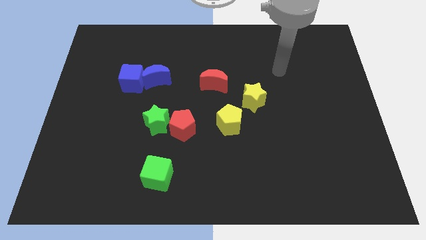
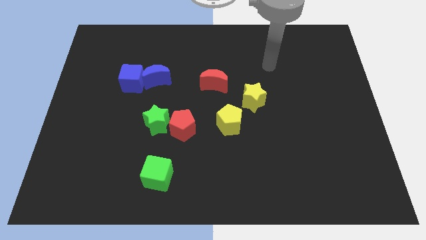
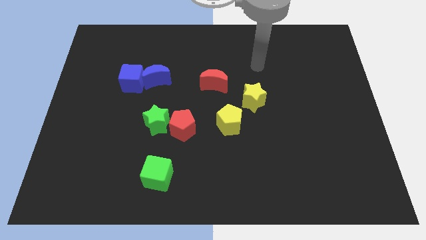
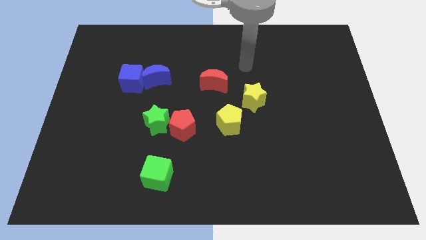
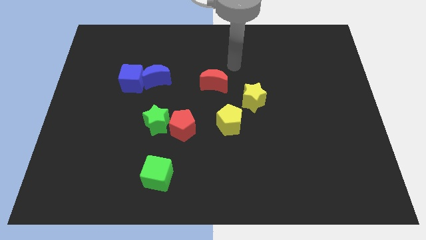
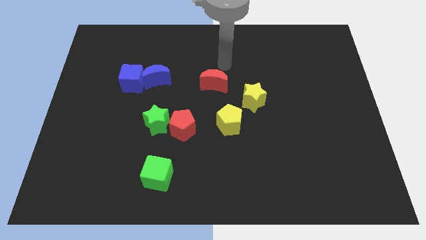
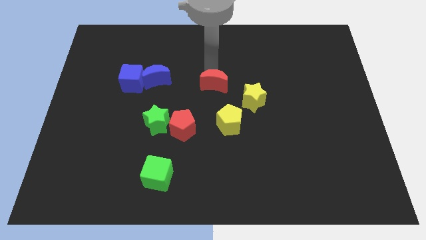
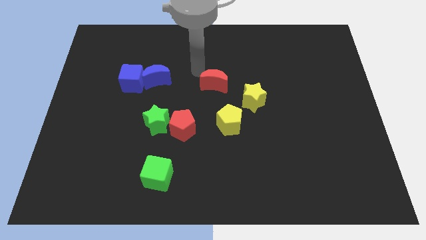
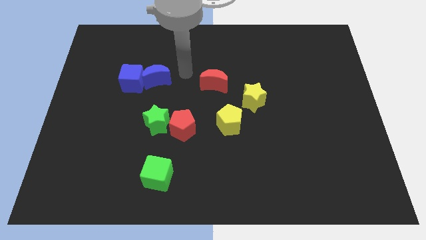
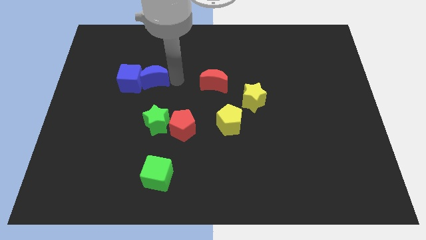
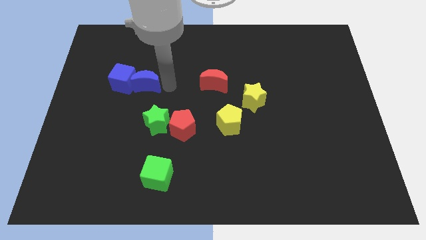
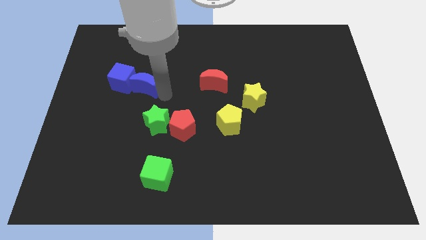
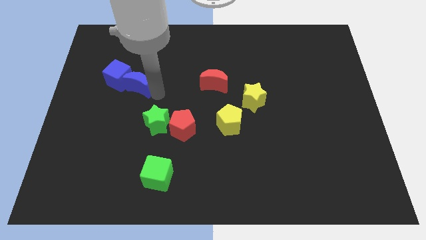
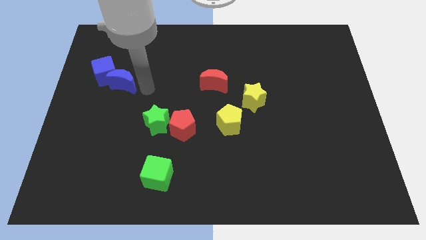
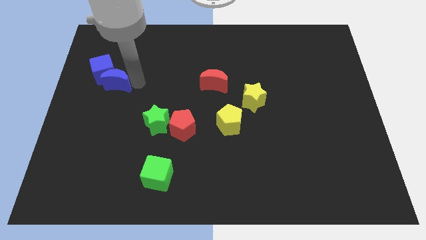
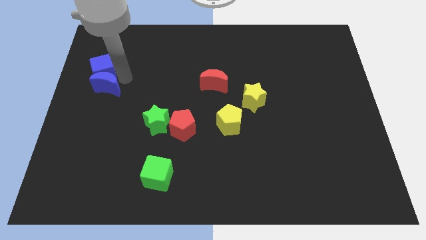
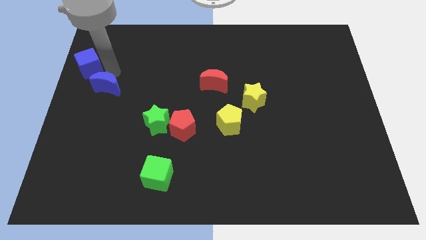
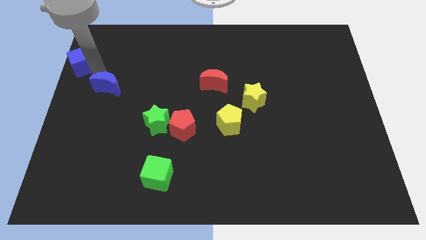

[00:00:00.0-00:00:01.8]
separate the blue moon from the blue cube

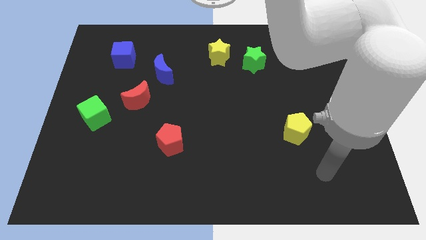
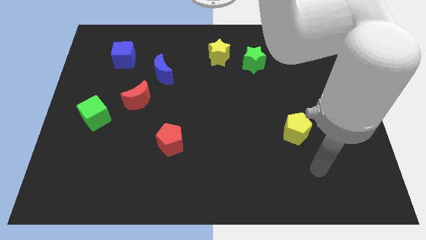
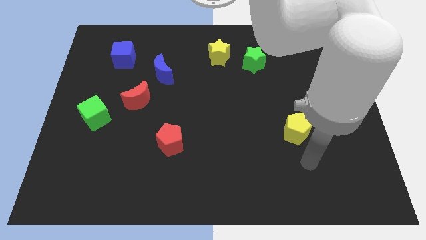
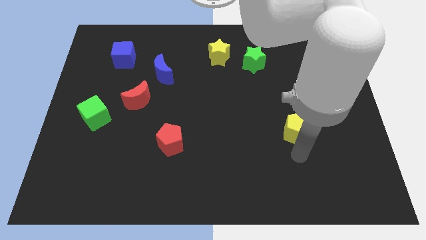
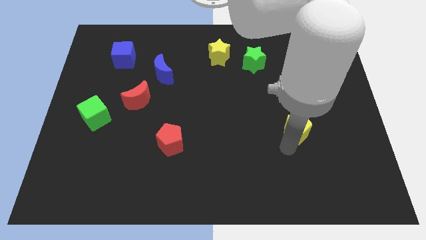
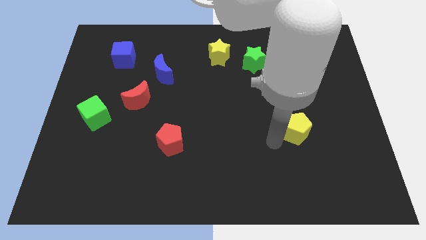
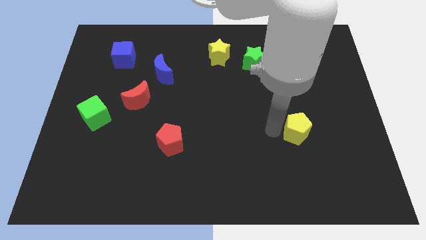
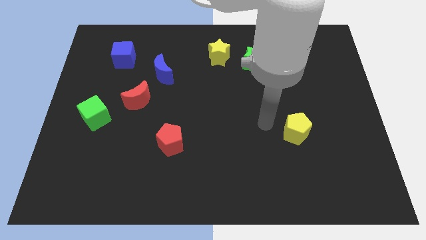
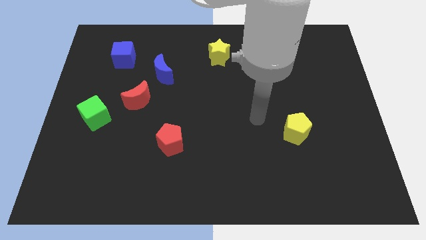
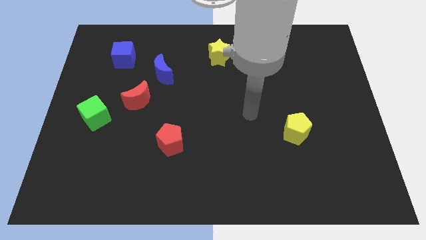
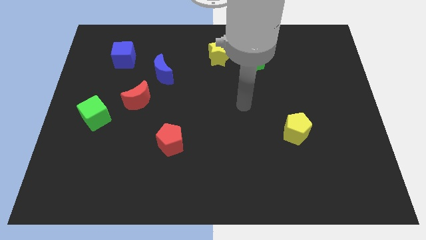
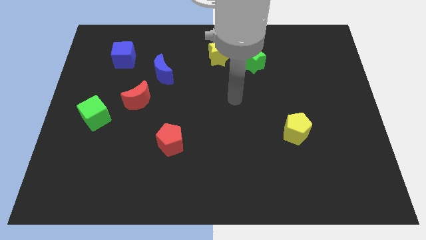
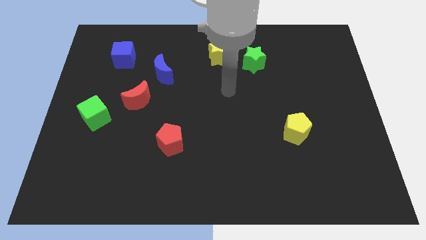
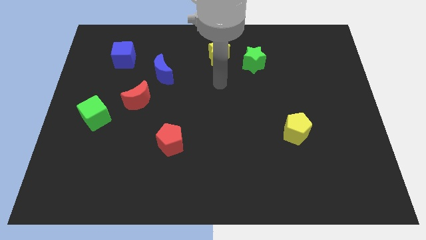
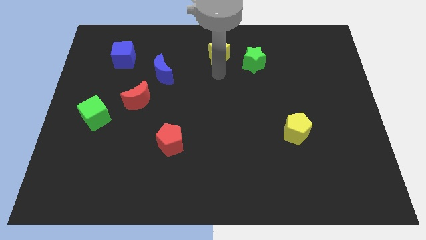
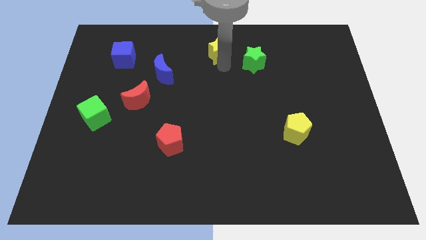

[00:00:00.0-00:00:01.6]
pull the green star apart from the yellow star

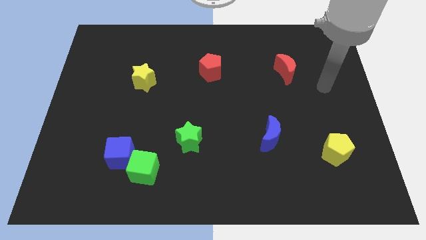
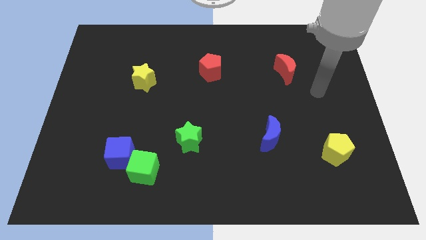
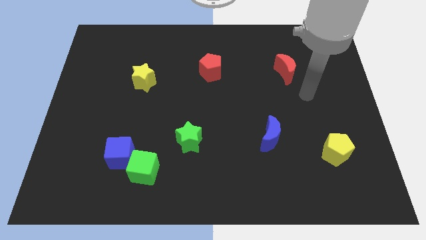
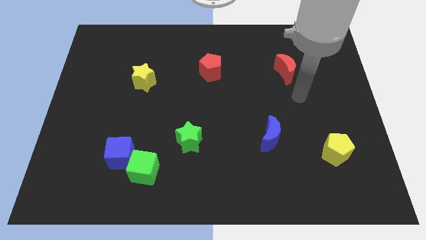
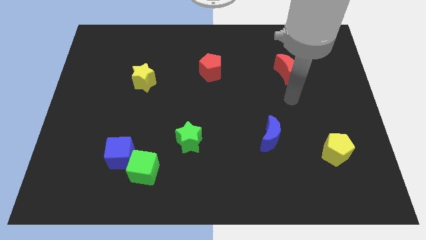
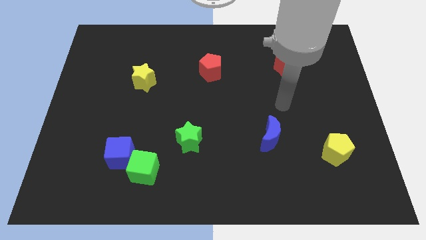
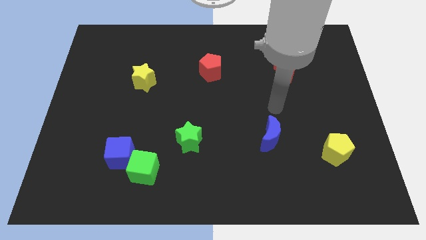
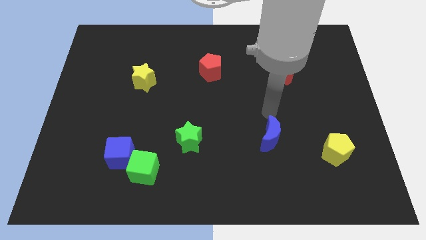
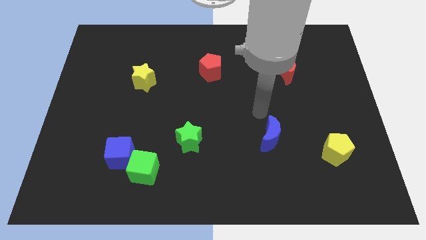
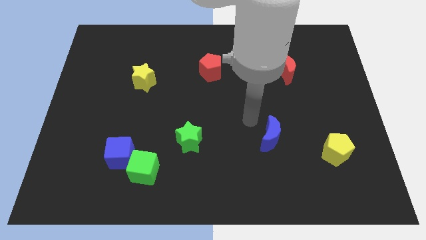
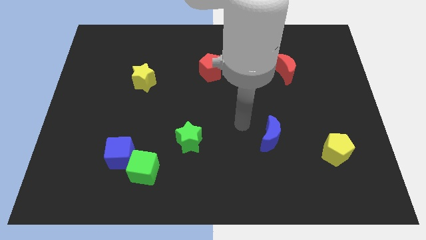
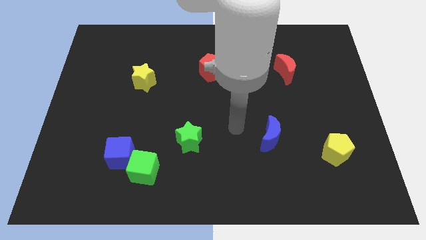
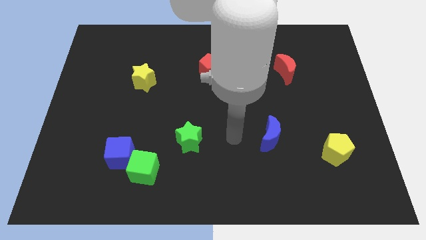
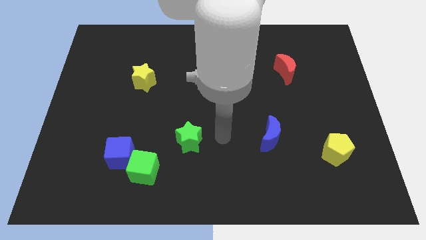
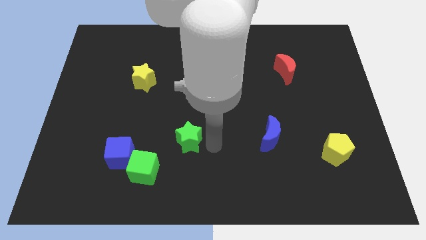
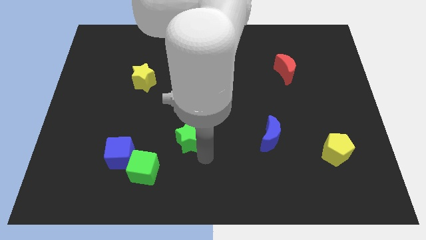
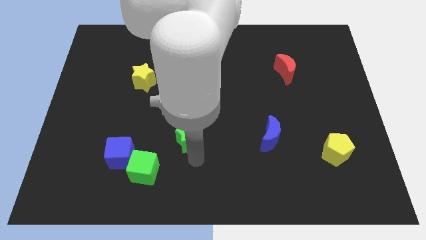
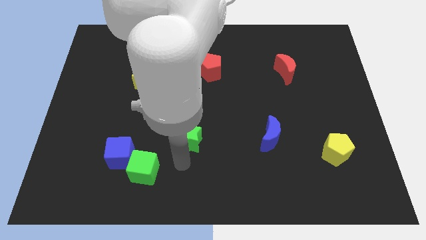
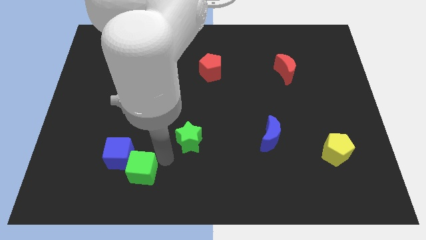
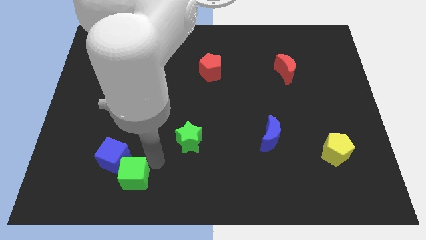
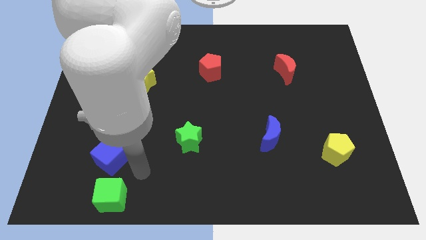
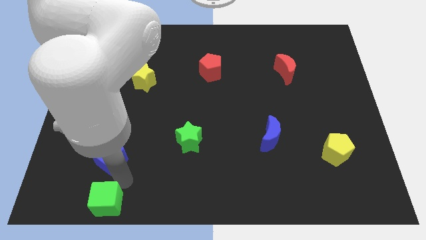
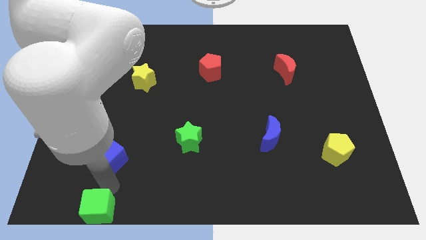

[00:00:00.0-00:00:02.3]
pull the blue cube apart from the green cube

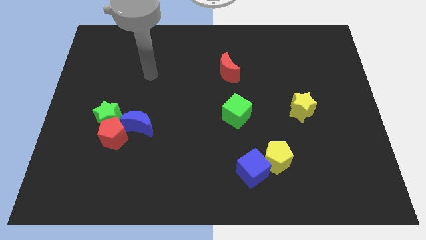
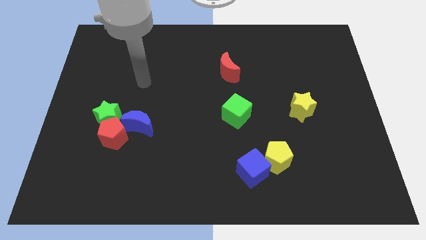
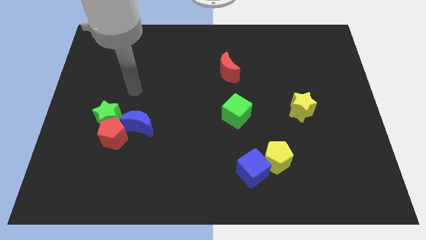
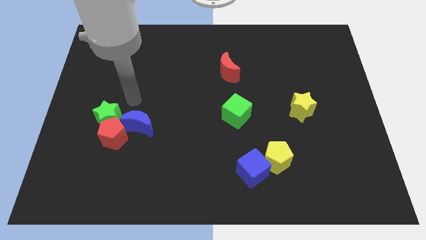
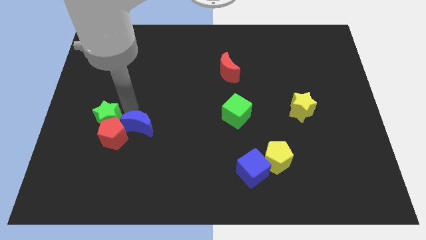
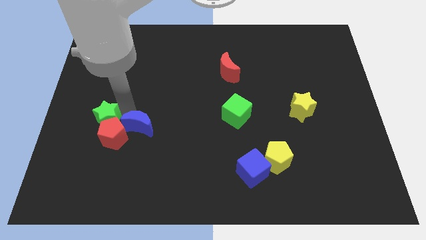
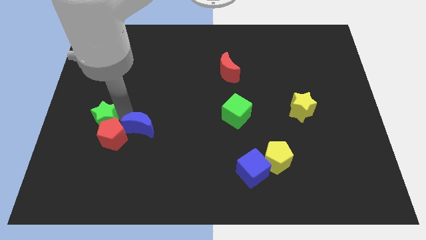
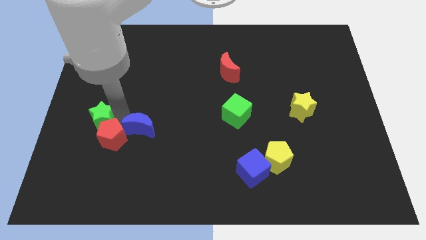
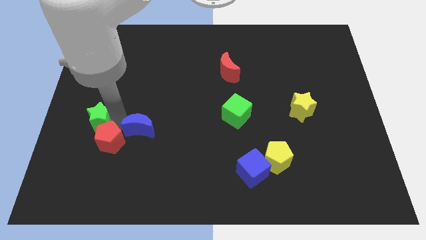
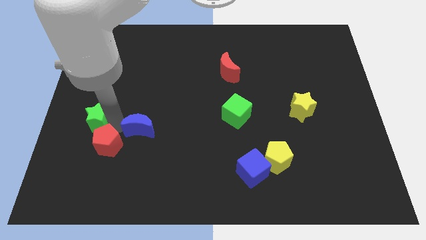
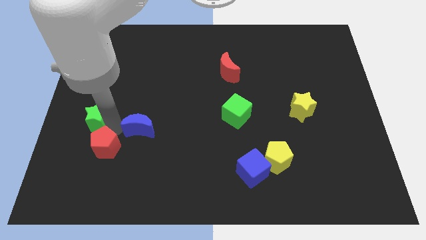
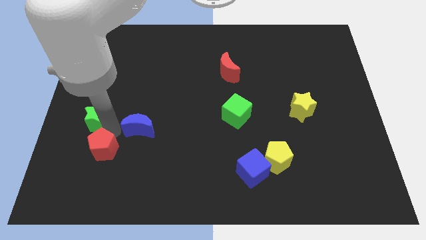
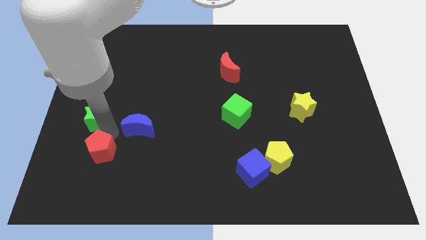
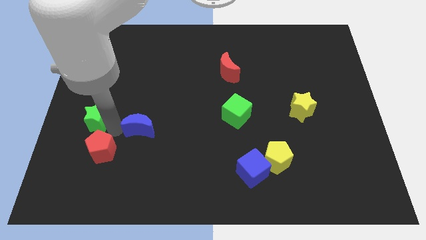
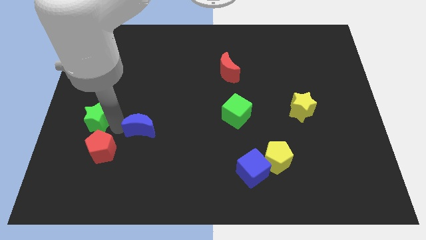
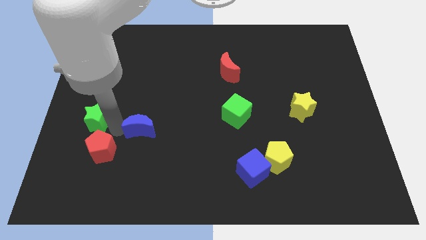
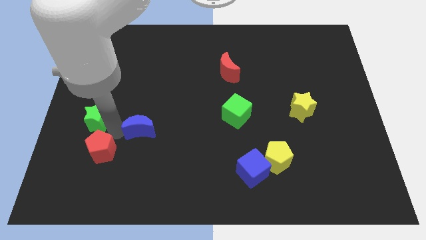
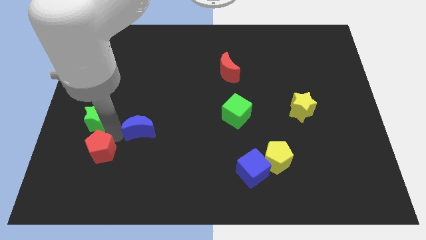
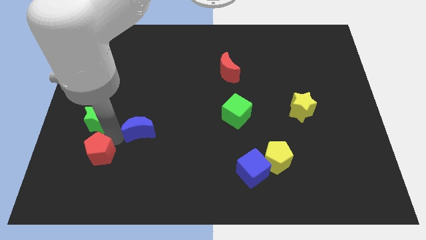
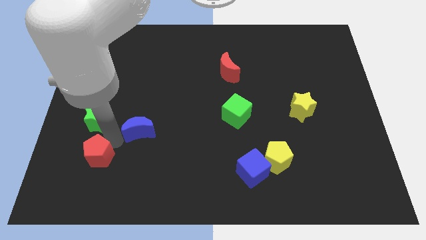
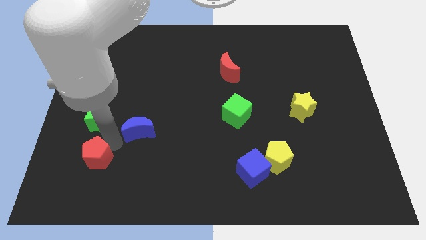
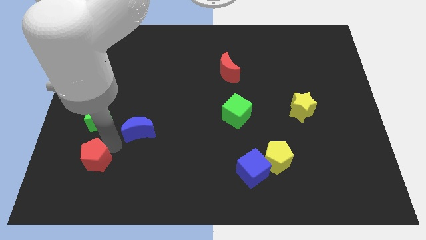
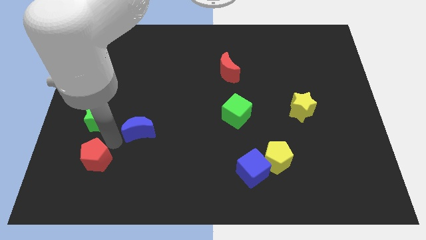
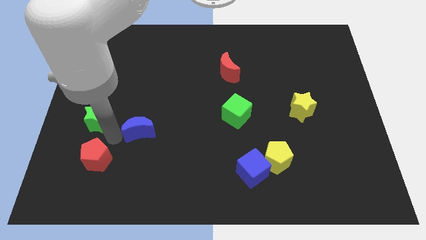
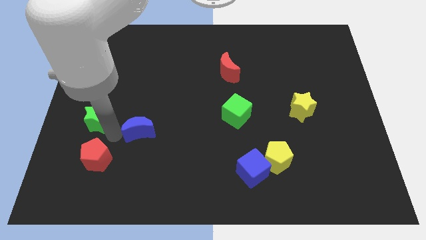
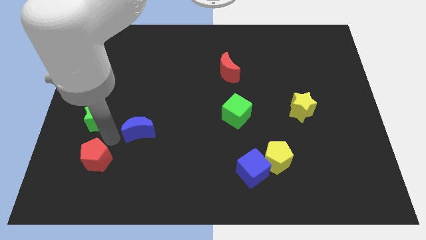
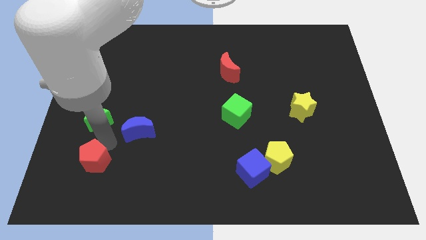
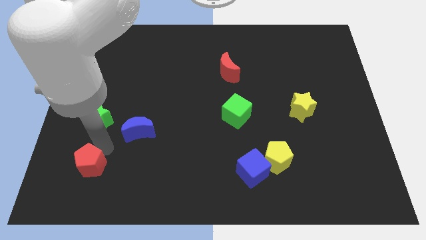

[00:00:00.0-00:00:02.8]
pull the red pentagon apart from the green star and blue moon

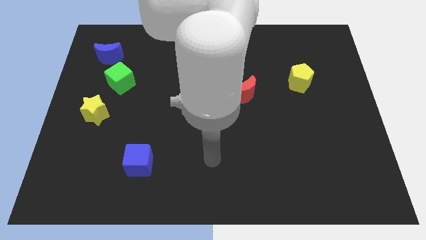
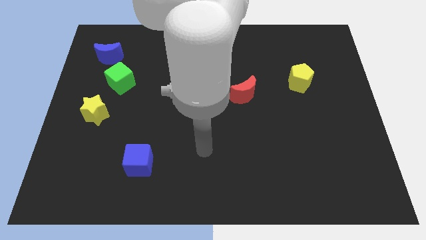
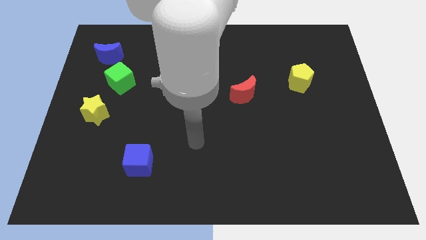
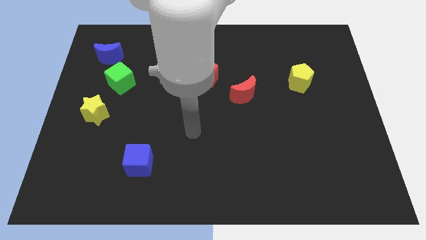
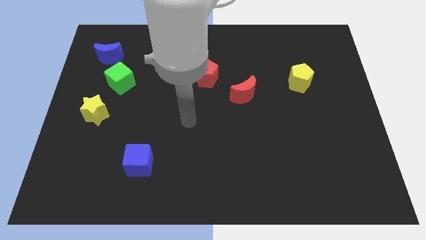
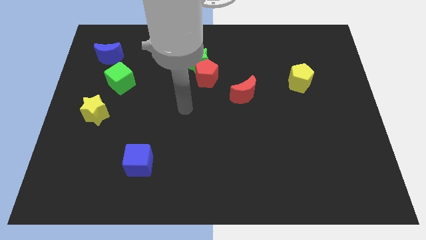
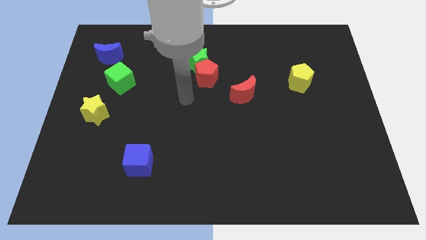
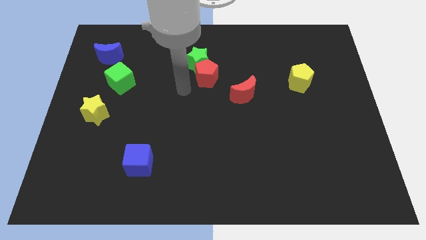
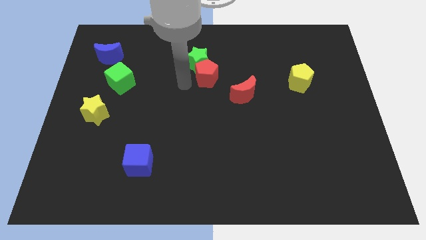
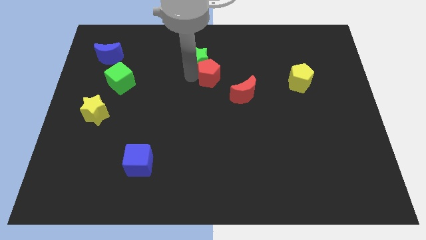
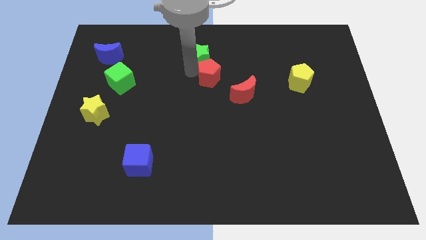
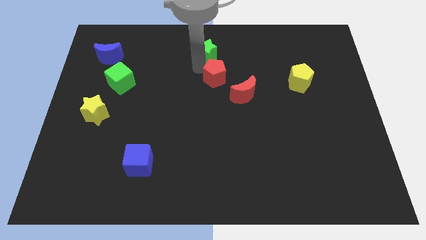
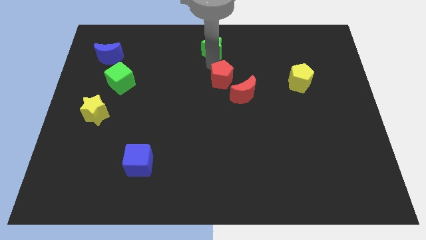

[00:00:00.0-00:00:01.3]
move the red pentagon away from the green star
